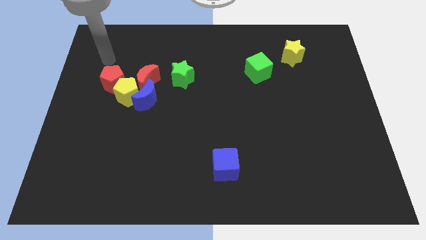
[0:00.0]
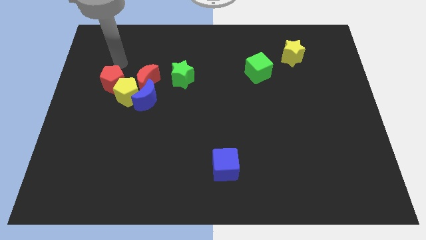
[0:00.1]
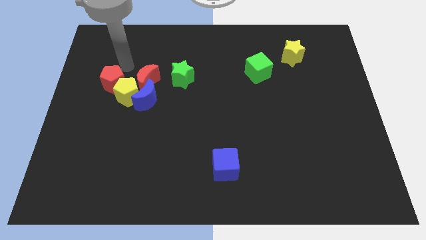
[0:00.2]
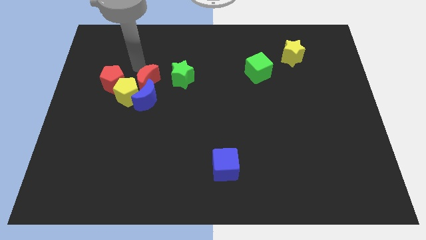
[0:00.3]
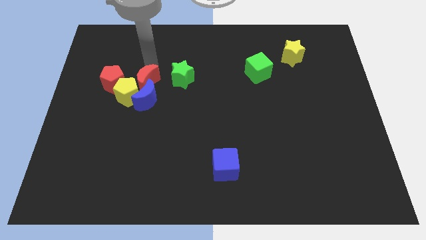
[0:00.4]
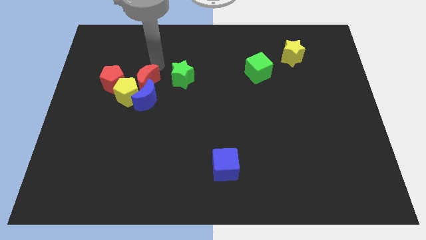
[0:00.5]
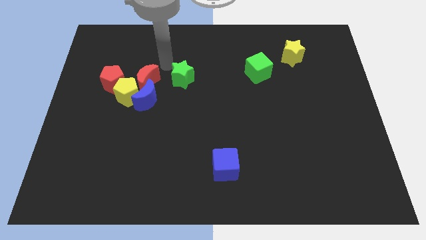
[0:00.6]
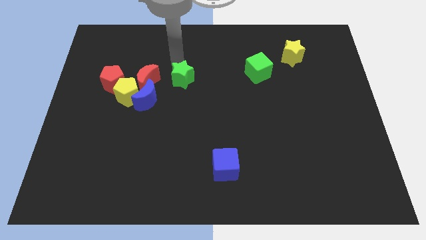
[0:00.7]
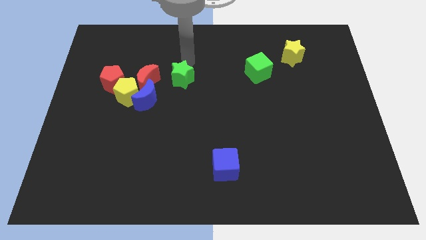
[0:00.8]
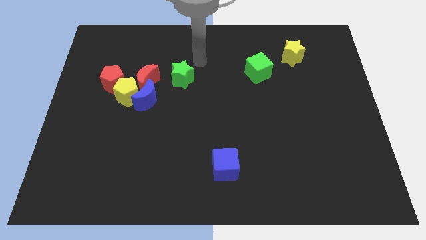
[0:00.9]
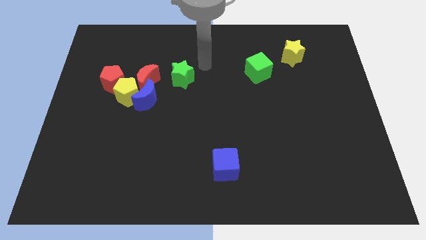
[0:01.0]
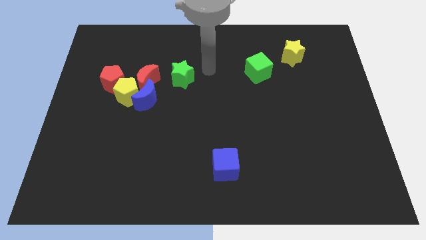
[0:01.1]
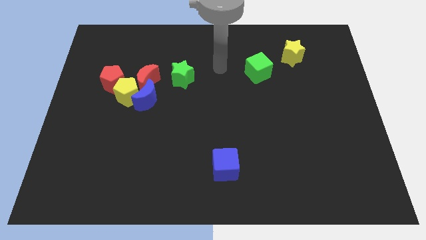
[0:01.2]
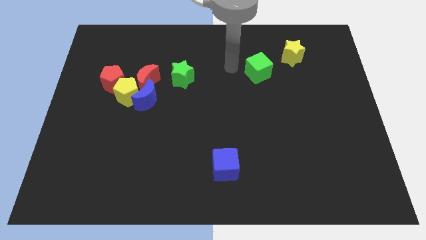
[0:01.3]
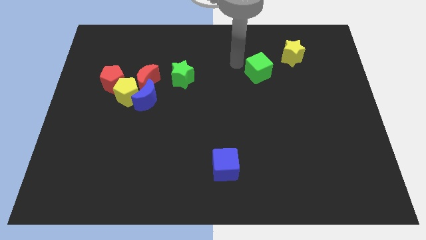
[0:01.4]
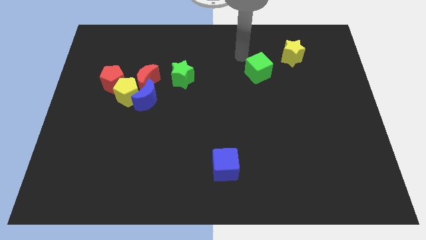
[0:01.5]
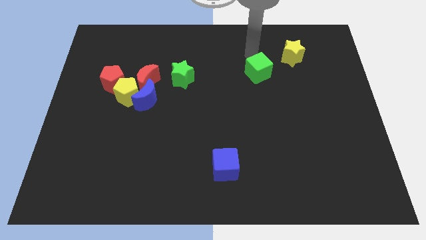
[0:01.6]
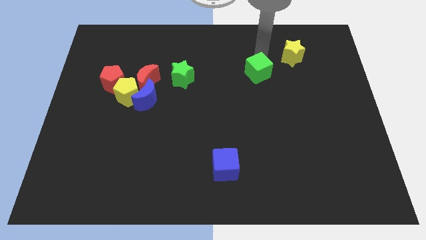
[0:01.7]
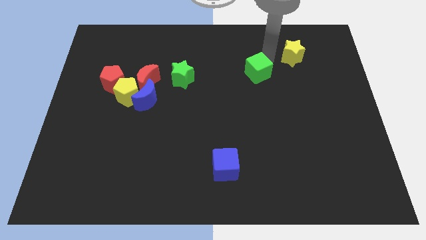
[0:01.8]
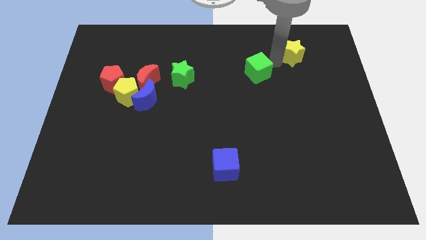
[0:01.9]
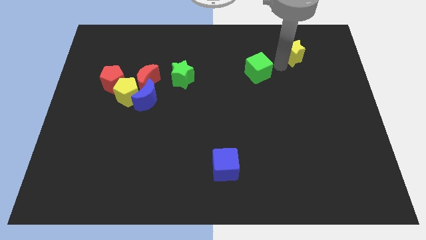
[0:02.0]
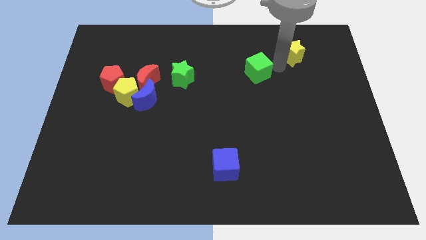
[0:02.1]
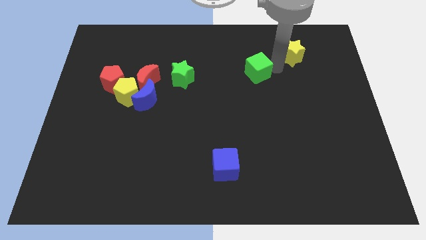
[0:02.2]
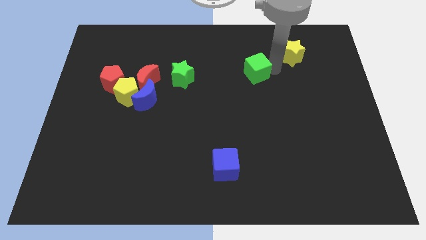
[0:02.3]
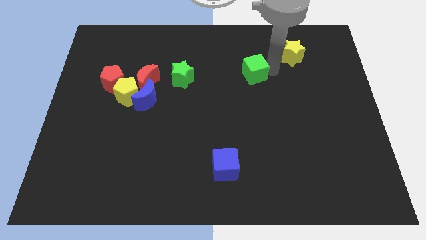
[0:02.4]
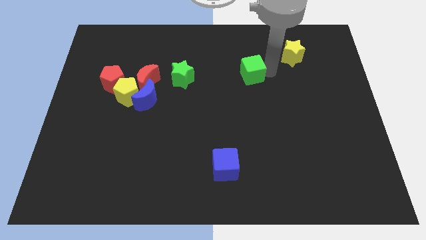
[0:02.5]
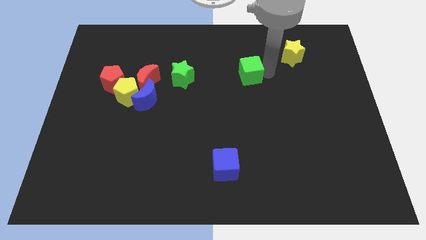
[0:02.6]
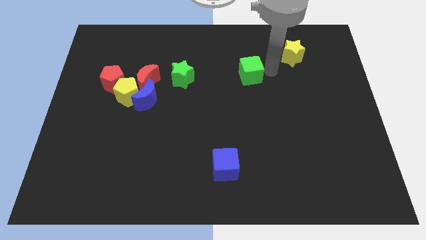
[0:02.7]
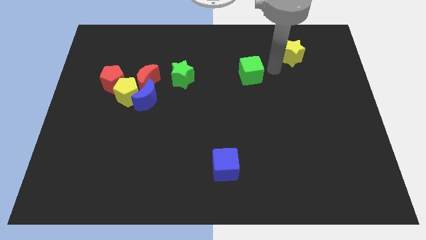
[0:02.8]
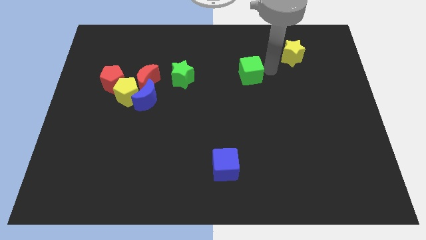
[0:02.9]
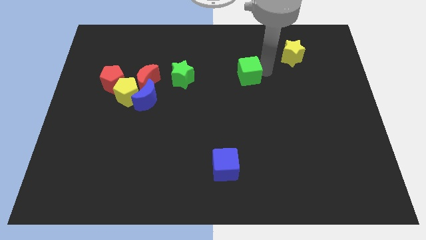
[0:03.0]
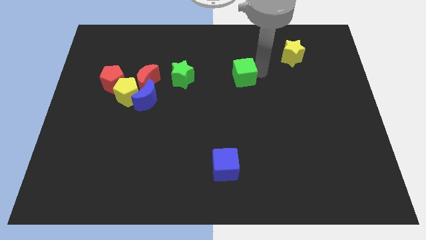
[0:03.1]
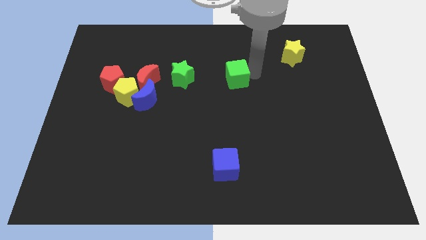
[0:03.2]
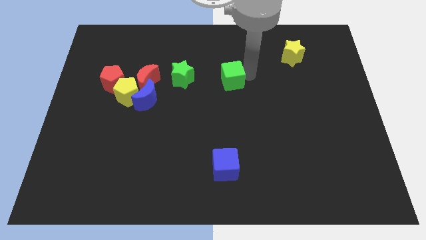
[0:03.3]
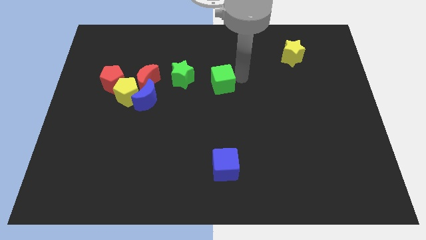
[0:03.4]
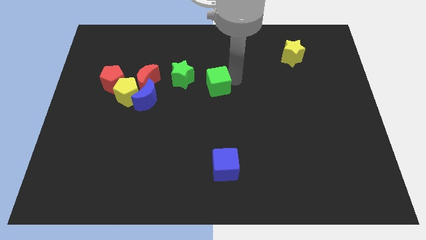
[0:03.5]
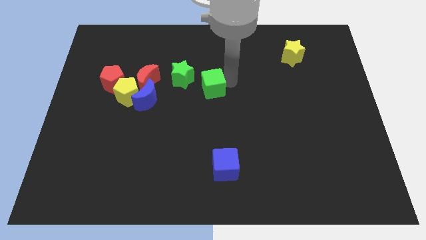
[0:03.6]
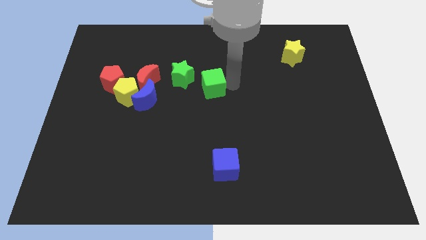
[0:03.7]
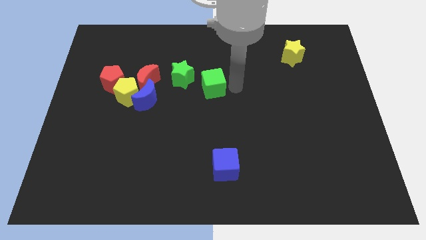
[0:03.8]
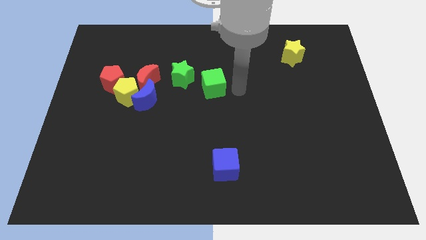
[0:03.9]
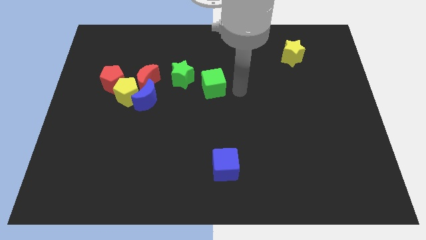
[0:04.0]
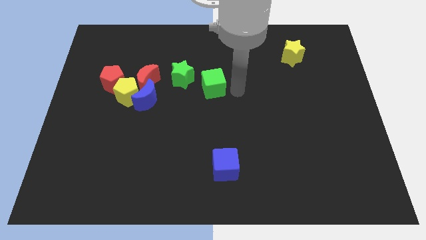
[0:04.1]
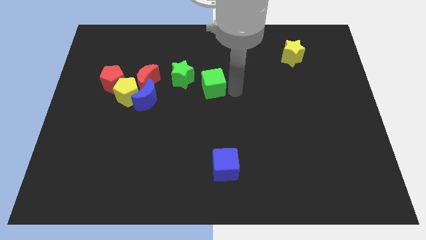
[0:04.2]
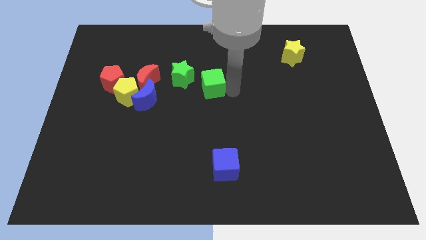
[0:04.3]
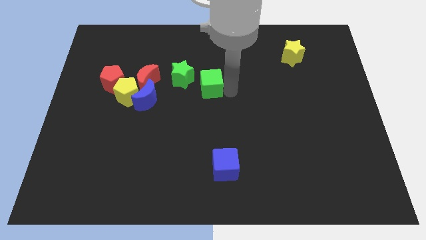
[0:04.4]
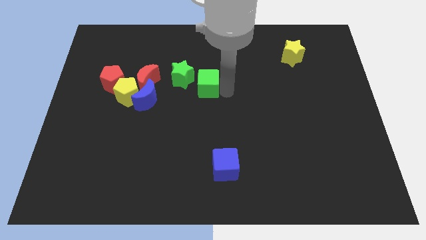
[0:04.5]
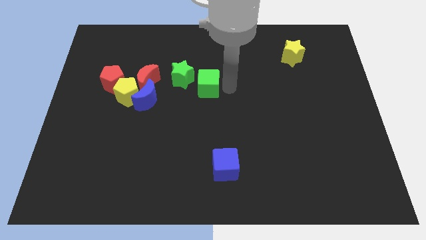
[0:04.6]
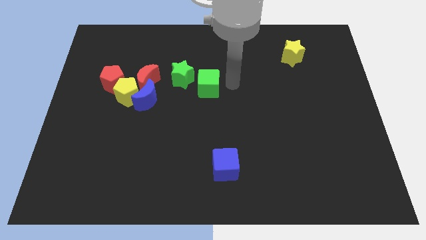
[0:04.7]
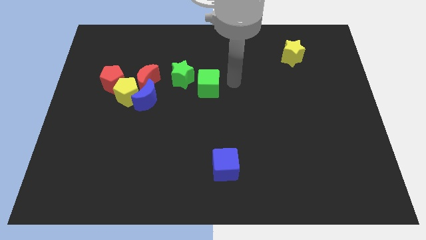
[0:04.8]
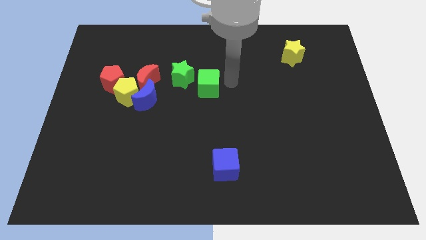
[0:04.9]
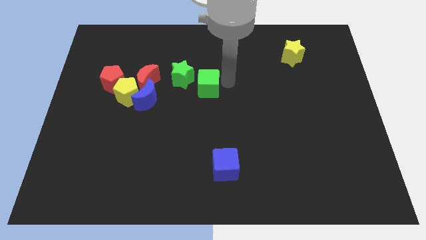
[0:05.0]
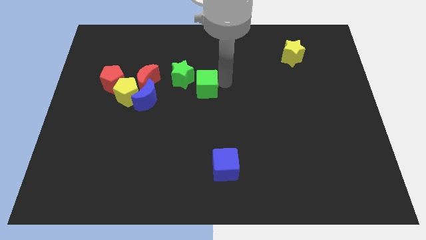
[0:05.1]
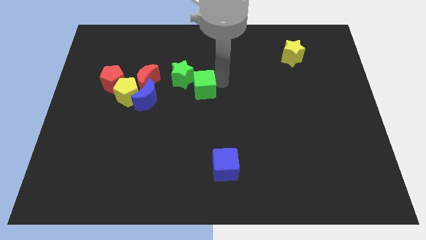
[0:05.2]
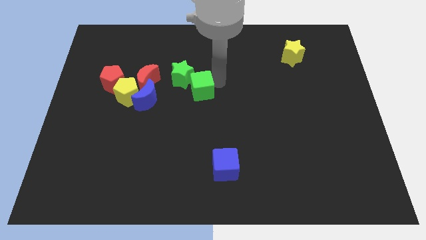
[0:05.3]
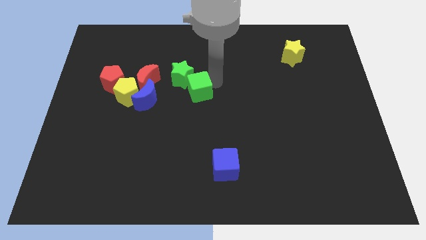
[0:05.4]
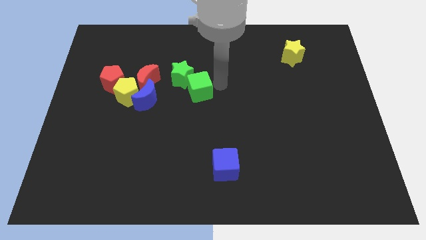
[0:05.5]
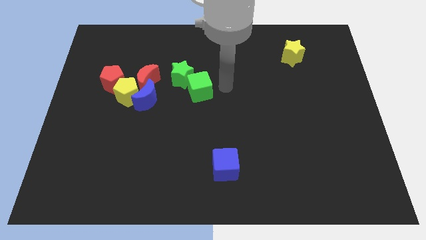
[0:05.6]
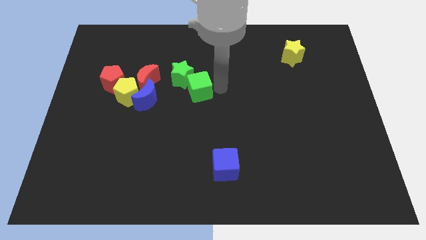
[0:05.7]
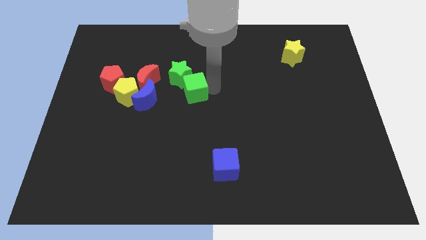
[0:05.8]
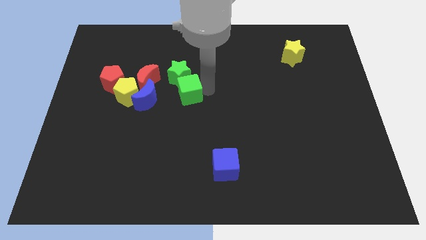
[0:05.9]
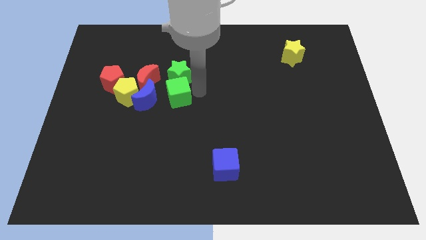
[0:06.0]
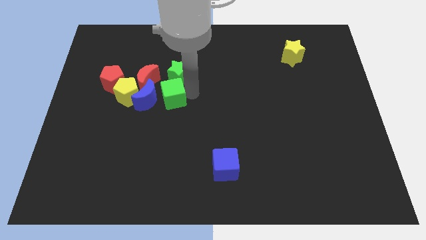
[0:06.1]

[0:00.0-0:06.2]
put the green cube close to the blue moon
